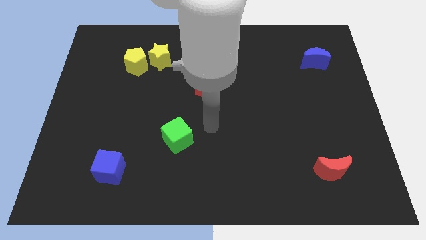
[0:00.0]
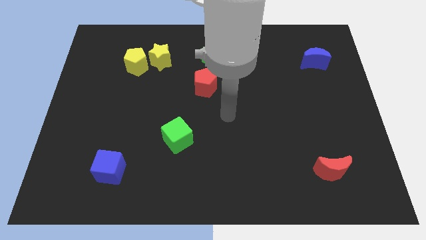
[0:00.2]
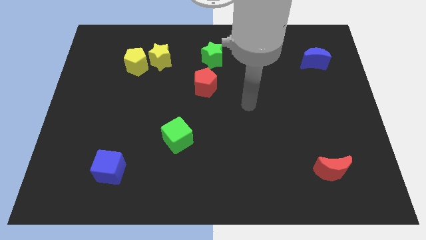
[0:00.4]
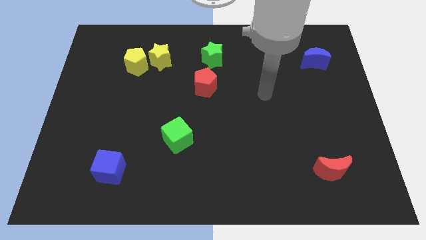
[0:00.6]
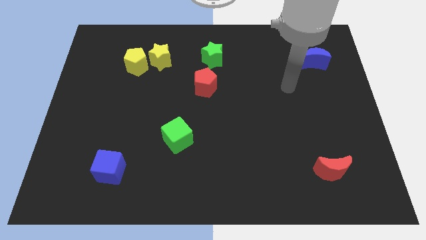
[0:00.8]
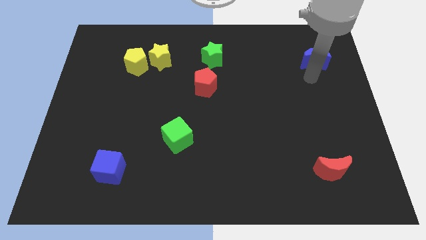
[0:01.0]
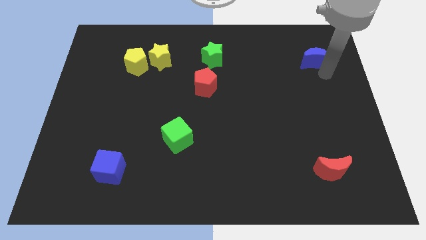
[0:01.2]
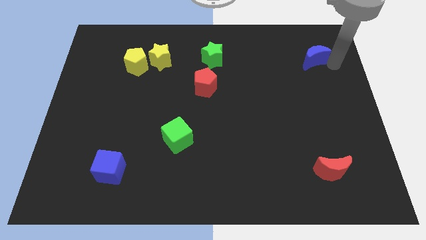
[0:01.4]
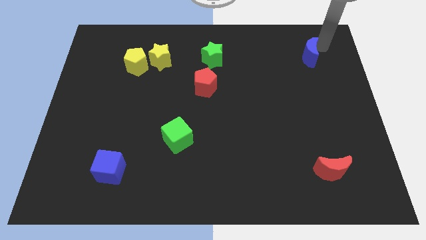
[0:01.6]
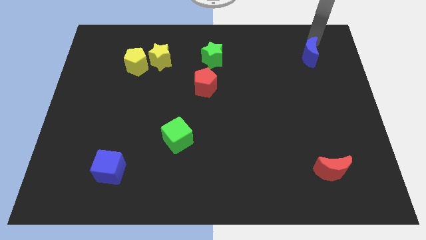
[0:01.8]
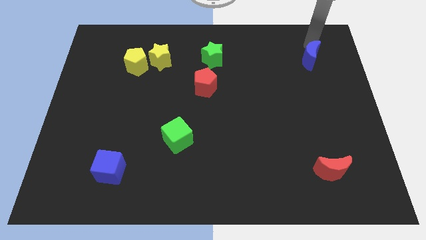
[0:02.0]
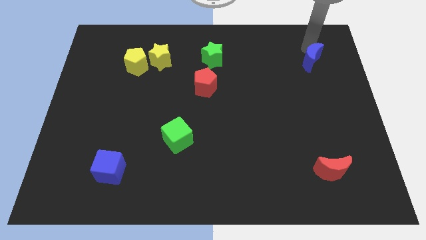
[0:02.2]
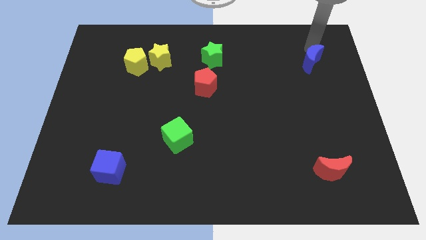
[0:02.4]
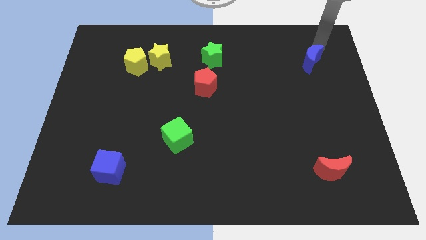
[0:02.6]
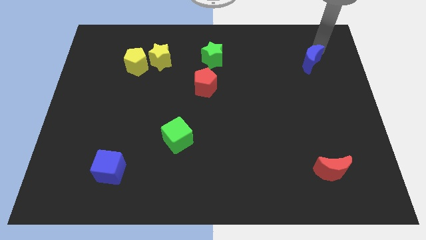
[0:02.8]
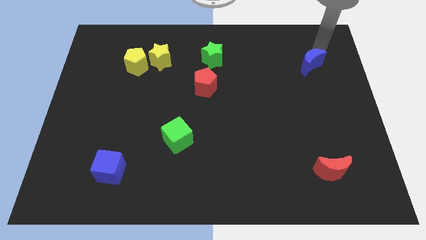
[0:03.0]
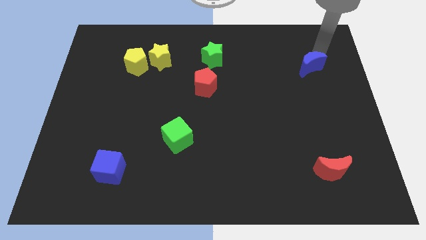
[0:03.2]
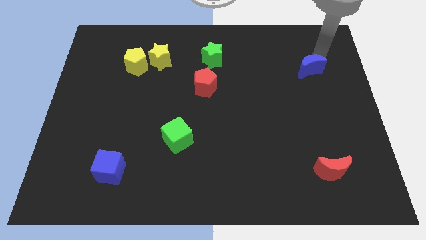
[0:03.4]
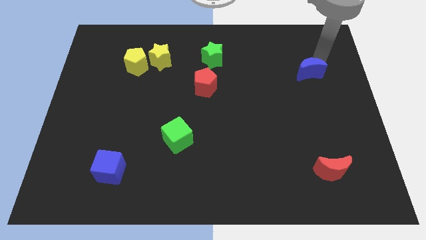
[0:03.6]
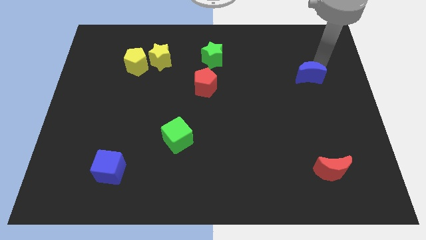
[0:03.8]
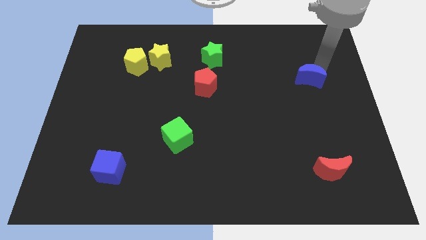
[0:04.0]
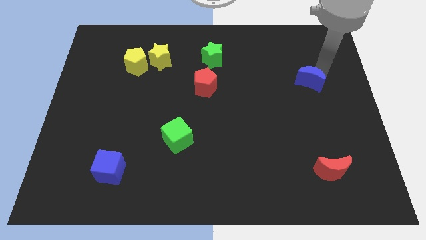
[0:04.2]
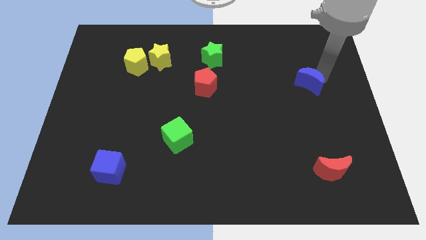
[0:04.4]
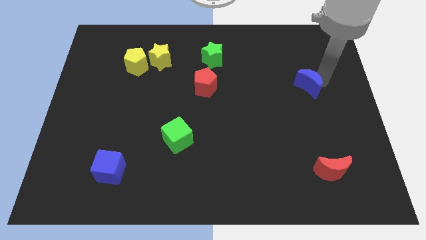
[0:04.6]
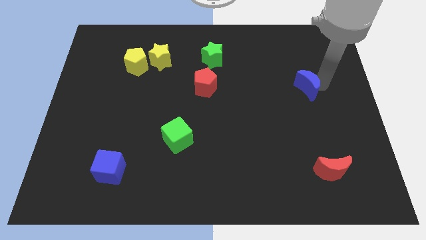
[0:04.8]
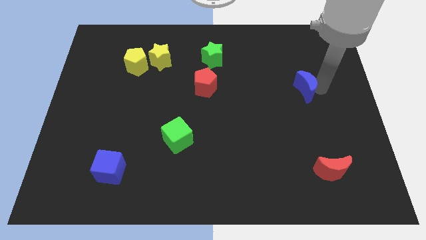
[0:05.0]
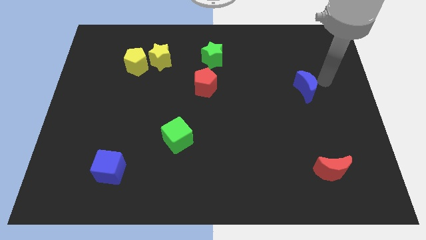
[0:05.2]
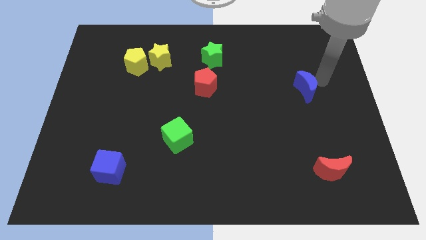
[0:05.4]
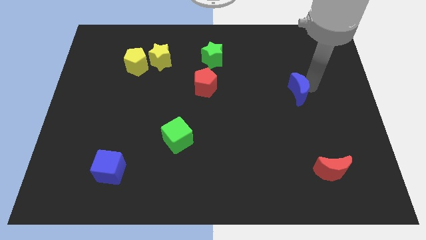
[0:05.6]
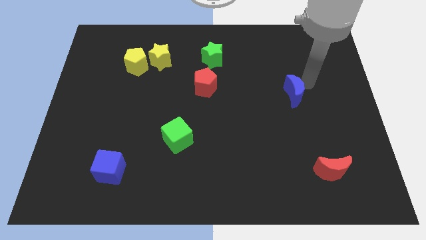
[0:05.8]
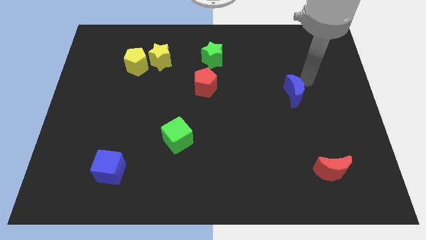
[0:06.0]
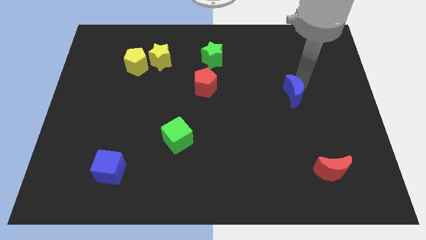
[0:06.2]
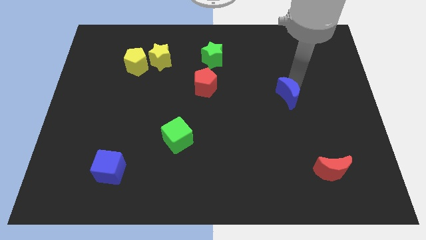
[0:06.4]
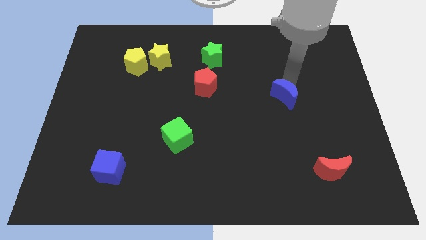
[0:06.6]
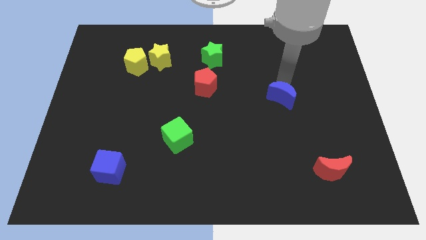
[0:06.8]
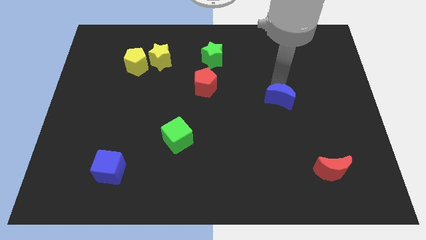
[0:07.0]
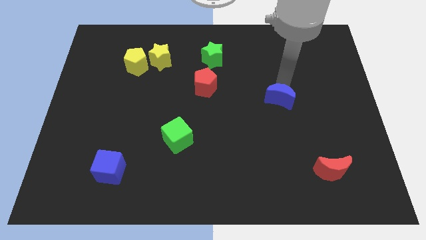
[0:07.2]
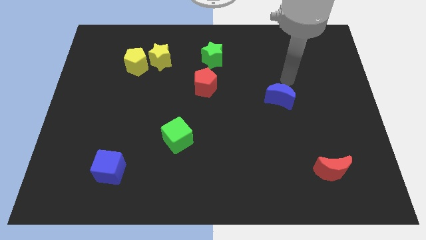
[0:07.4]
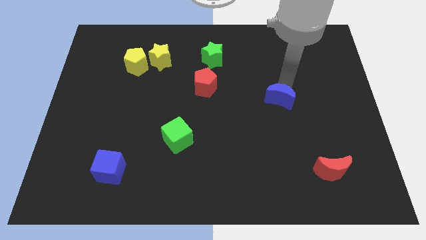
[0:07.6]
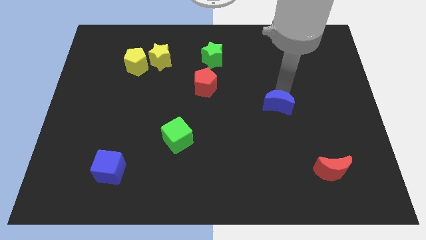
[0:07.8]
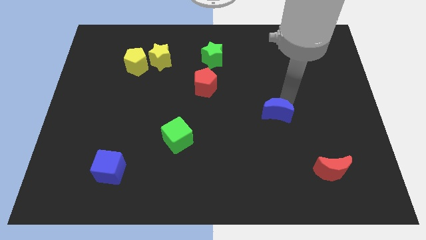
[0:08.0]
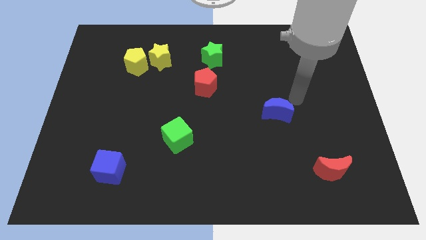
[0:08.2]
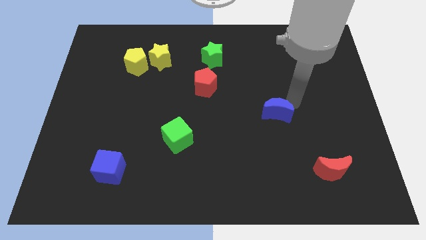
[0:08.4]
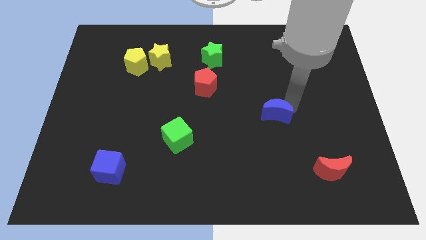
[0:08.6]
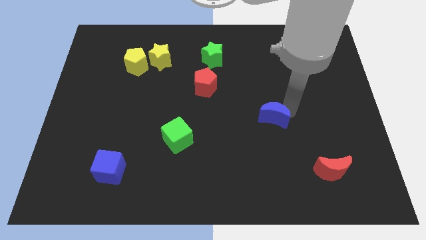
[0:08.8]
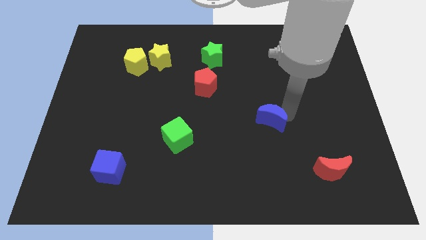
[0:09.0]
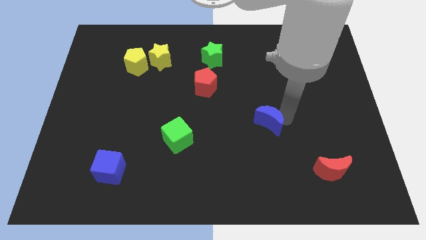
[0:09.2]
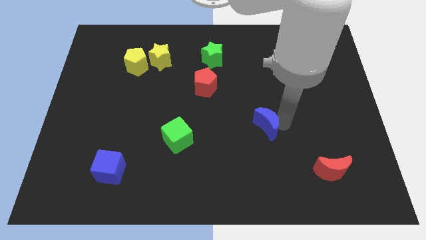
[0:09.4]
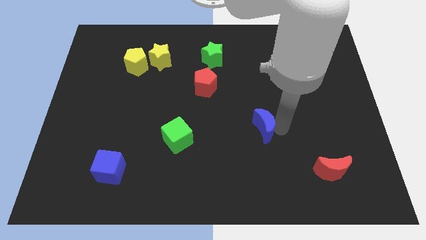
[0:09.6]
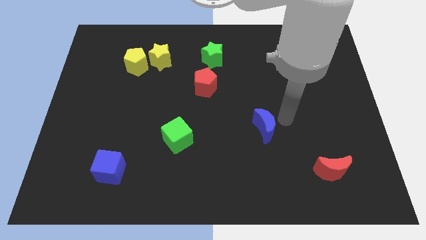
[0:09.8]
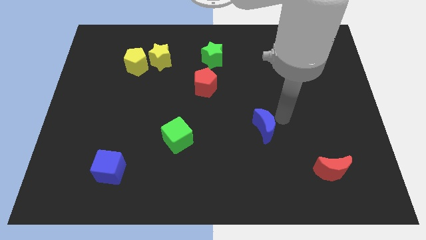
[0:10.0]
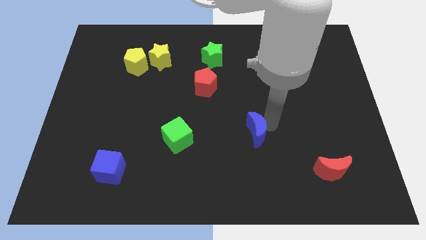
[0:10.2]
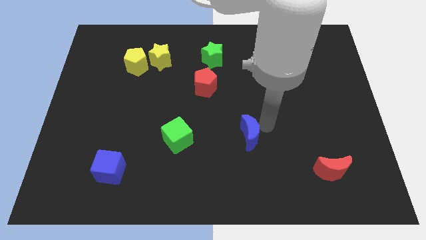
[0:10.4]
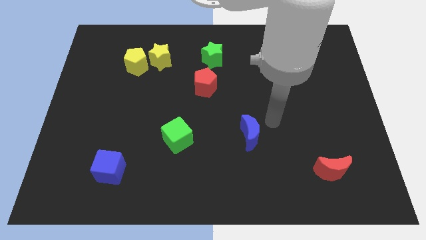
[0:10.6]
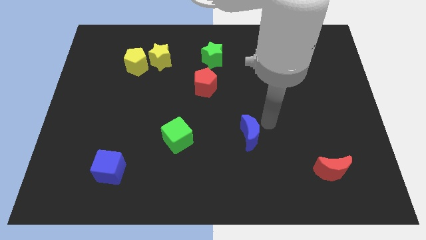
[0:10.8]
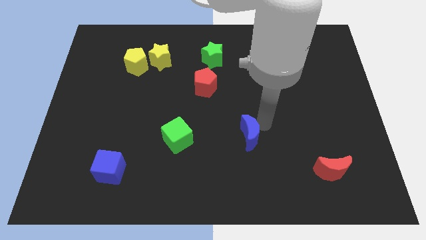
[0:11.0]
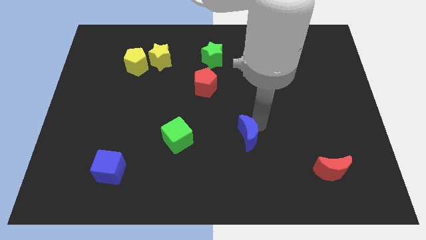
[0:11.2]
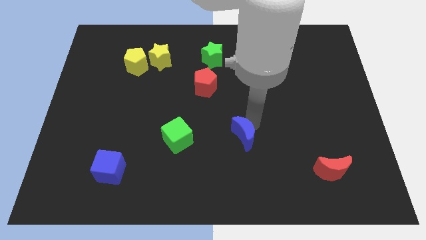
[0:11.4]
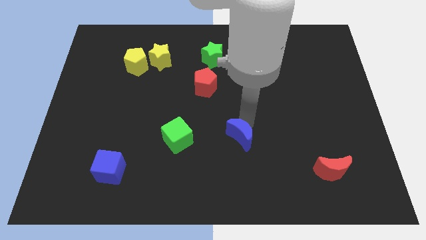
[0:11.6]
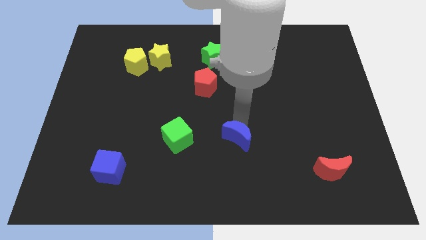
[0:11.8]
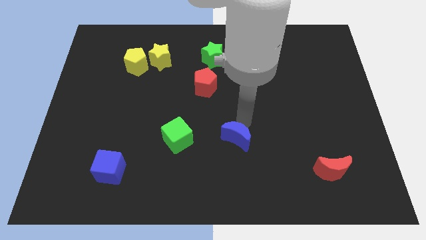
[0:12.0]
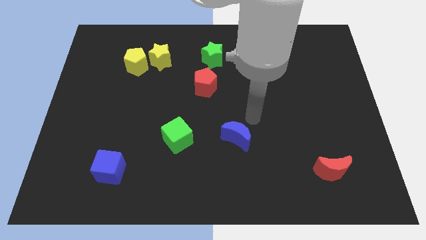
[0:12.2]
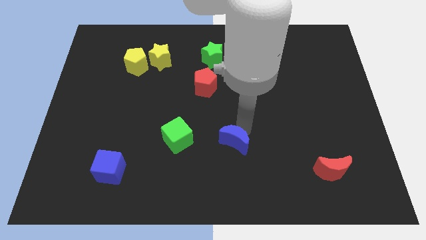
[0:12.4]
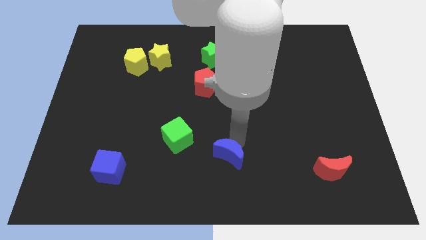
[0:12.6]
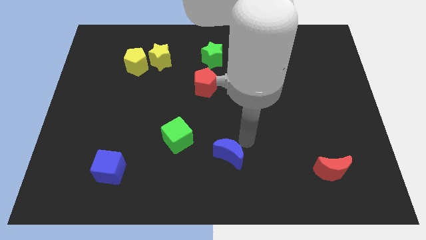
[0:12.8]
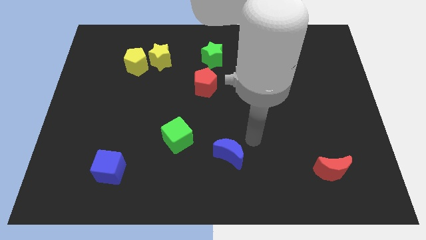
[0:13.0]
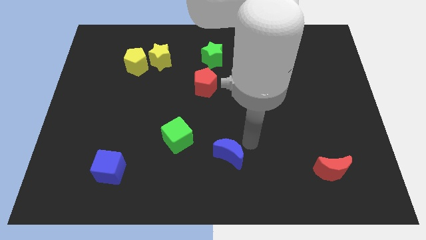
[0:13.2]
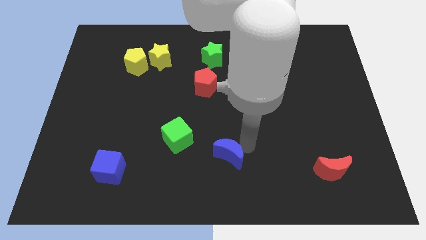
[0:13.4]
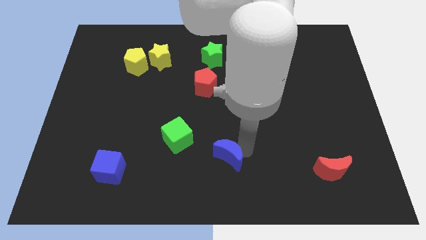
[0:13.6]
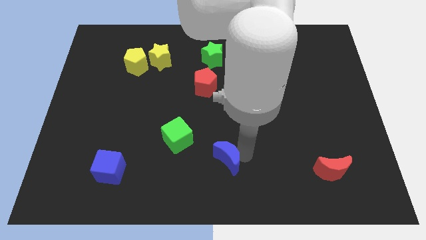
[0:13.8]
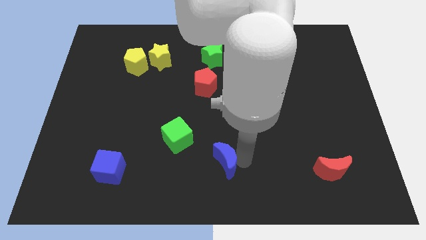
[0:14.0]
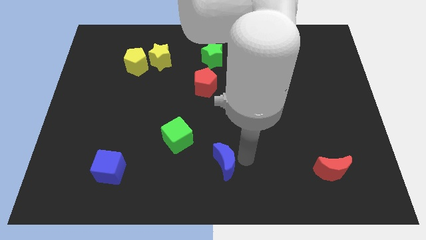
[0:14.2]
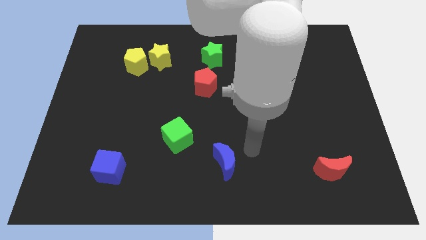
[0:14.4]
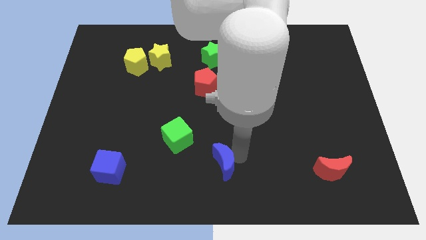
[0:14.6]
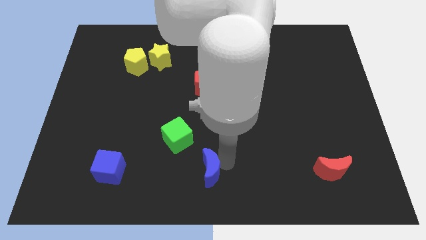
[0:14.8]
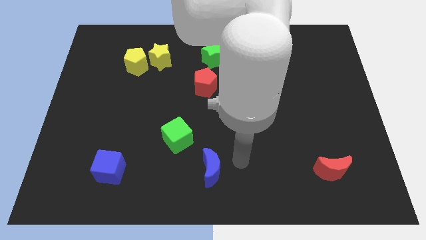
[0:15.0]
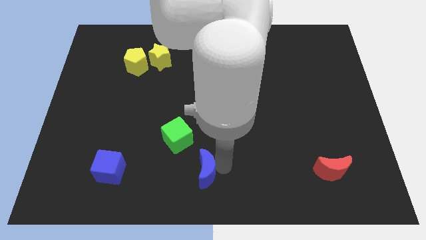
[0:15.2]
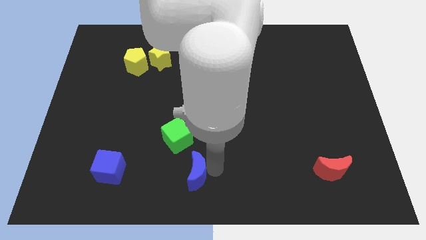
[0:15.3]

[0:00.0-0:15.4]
put the blue moon below the green cube
